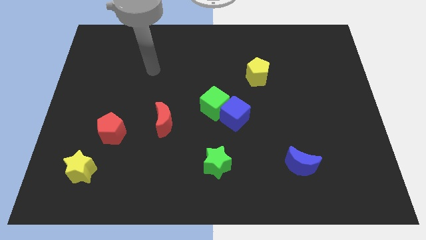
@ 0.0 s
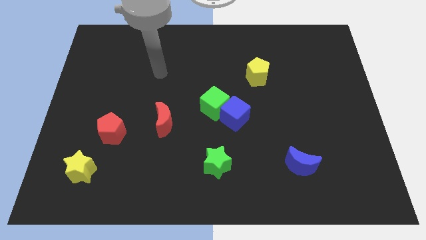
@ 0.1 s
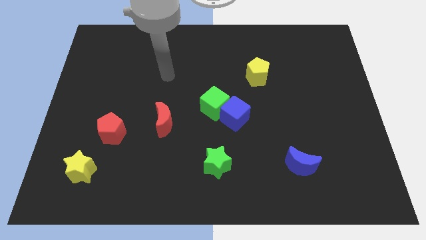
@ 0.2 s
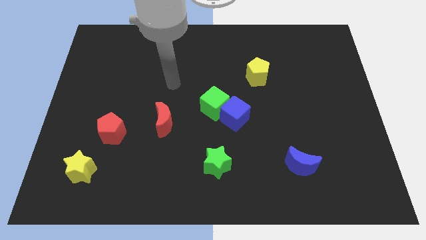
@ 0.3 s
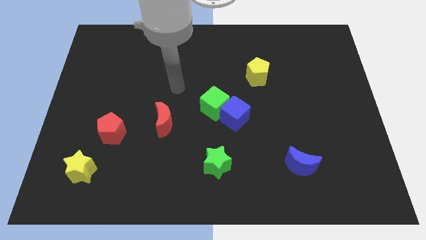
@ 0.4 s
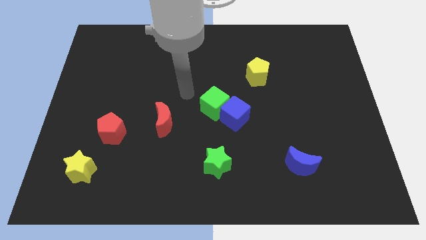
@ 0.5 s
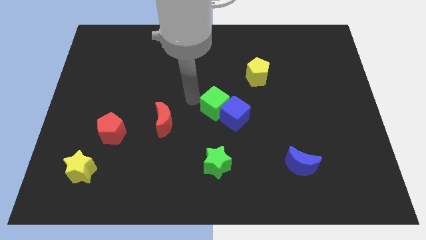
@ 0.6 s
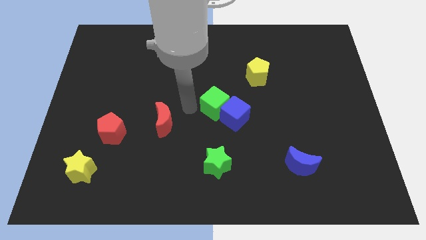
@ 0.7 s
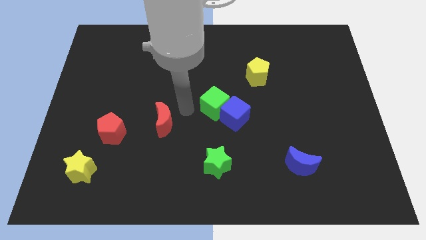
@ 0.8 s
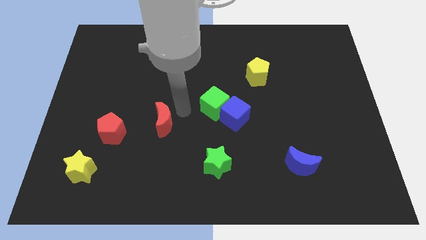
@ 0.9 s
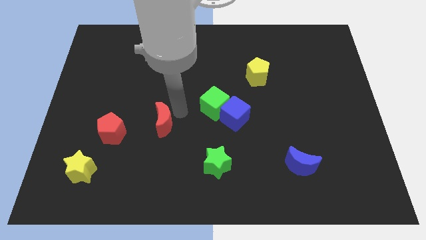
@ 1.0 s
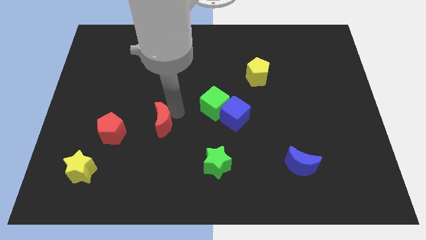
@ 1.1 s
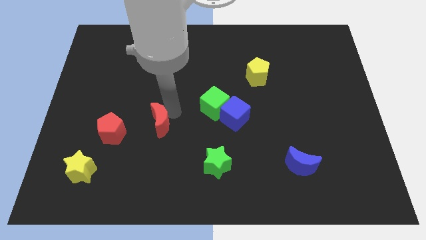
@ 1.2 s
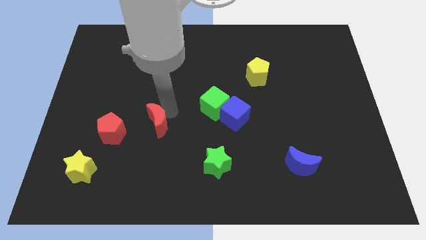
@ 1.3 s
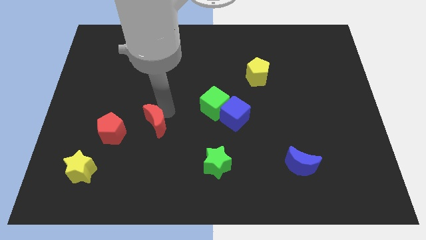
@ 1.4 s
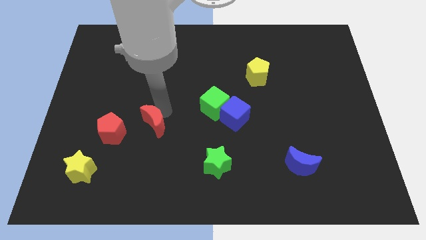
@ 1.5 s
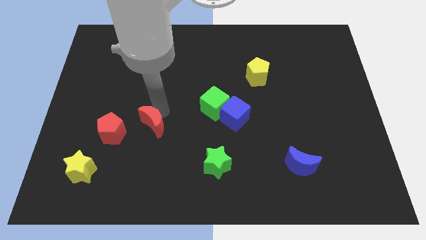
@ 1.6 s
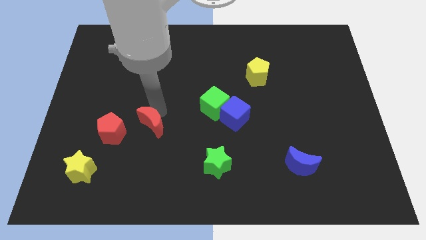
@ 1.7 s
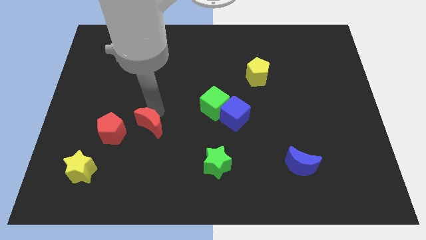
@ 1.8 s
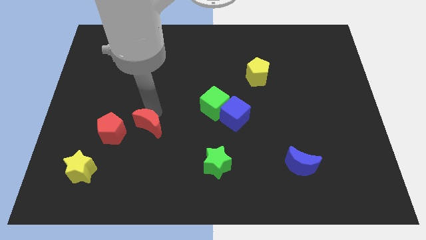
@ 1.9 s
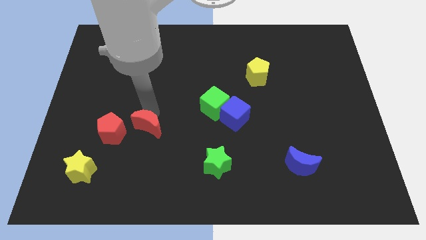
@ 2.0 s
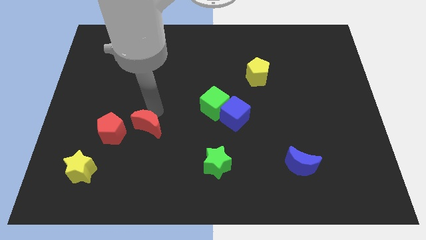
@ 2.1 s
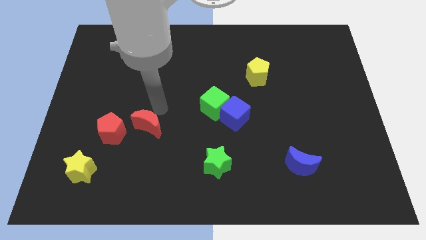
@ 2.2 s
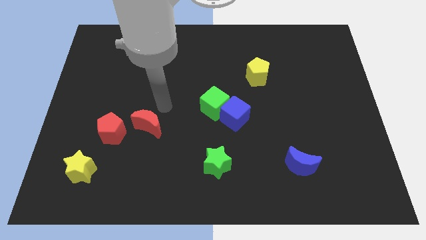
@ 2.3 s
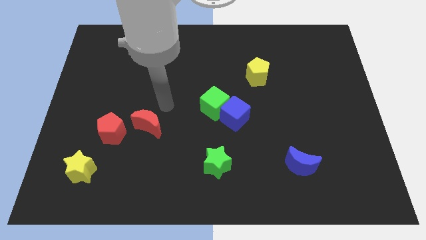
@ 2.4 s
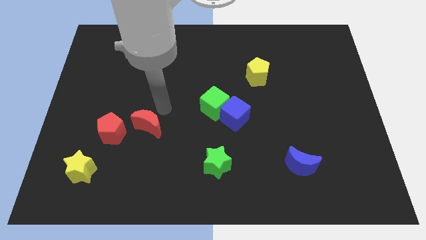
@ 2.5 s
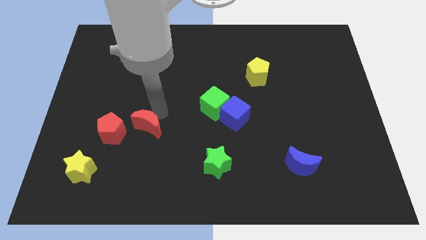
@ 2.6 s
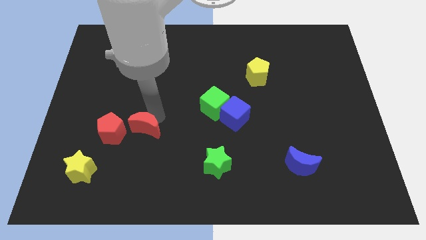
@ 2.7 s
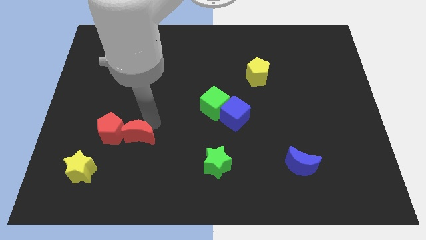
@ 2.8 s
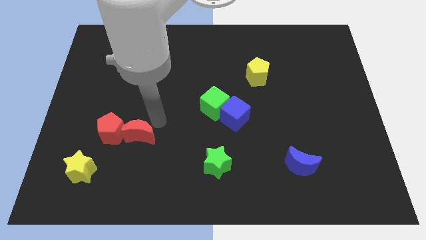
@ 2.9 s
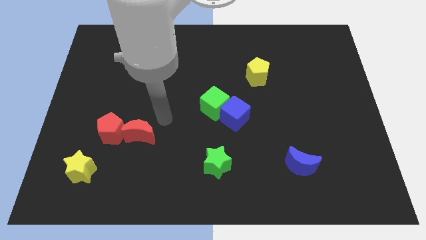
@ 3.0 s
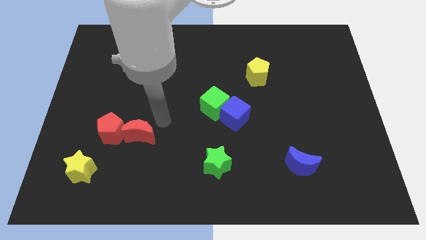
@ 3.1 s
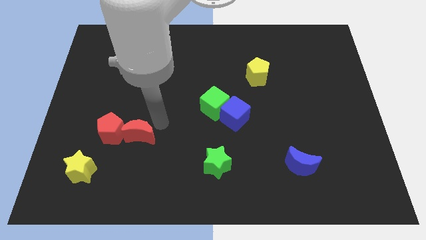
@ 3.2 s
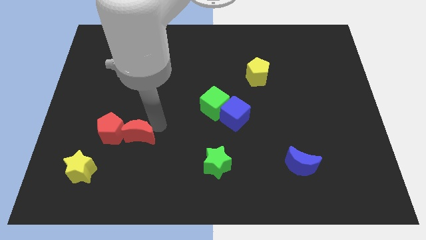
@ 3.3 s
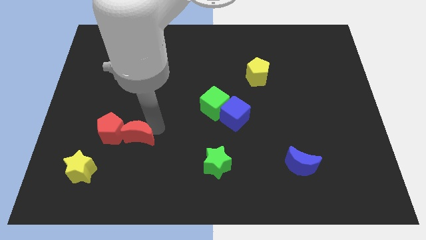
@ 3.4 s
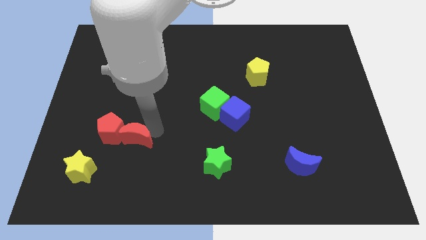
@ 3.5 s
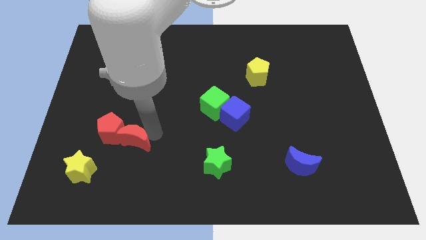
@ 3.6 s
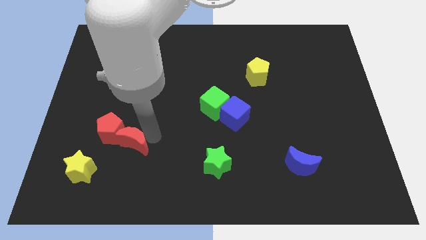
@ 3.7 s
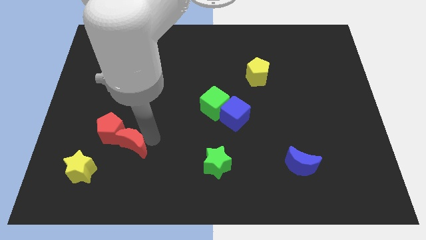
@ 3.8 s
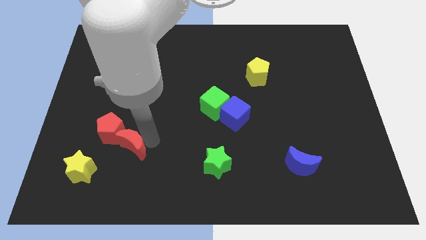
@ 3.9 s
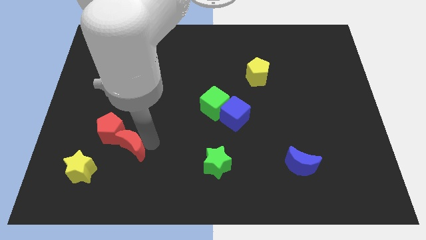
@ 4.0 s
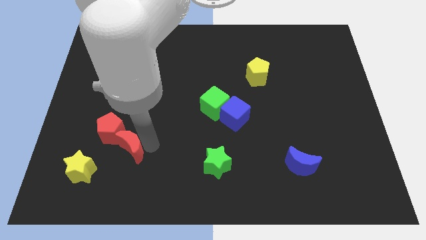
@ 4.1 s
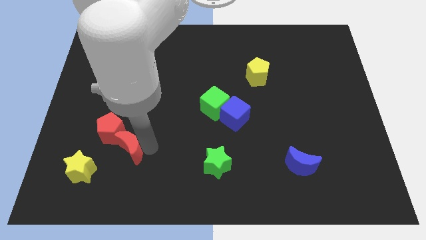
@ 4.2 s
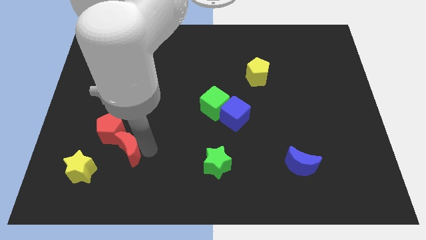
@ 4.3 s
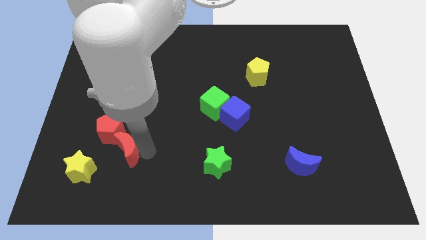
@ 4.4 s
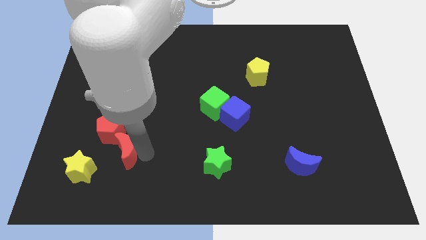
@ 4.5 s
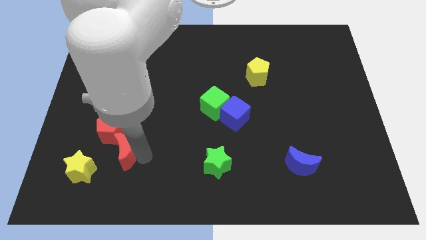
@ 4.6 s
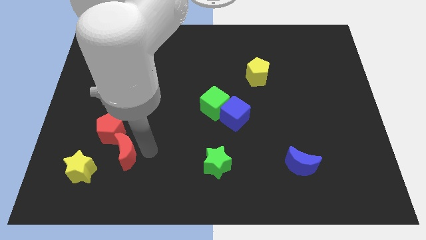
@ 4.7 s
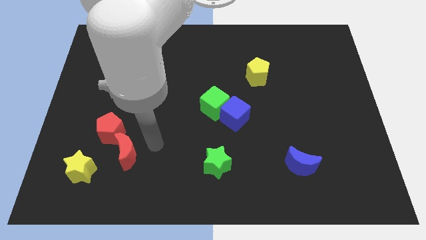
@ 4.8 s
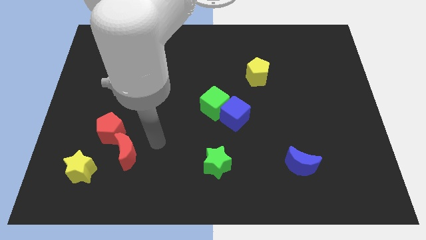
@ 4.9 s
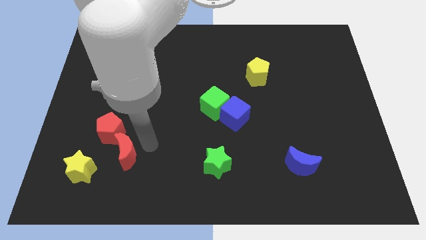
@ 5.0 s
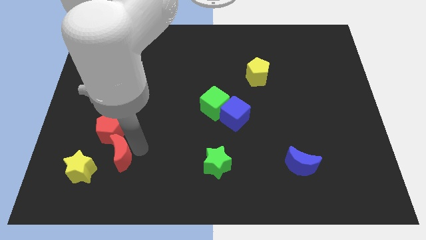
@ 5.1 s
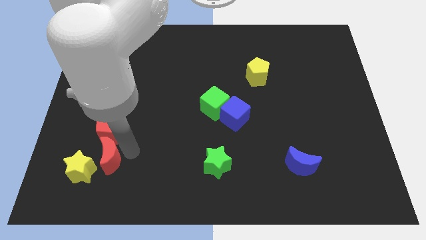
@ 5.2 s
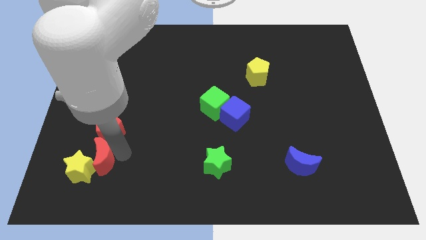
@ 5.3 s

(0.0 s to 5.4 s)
put the red moon towards the yellow star
